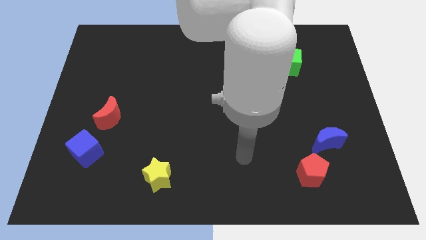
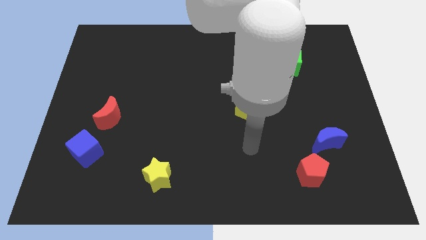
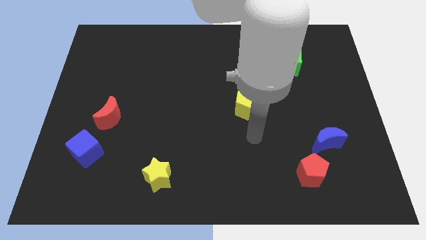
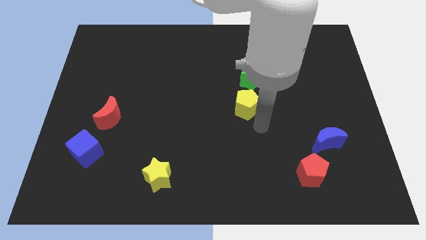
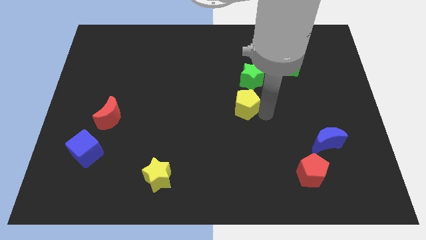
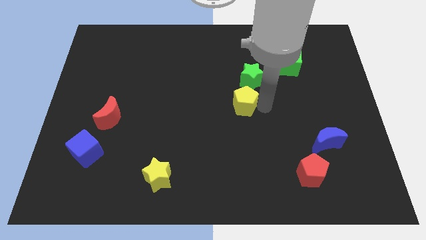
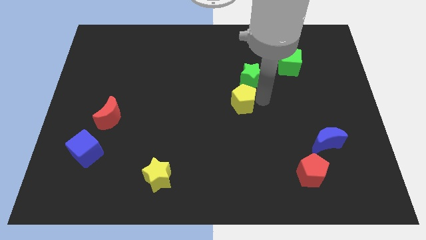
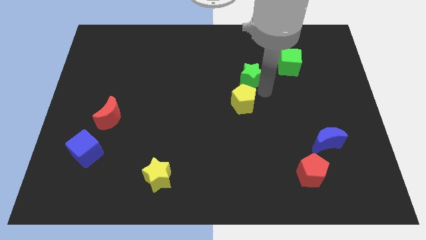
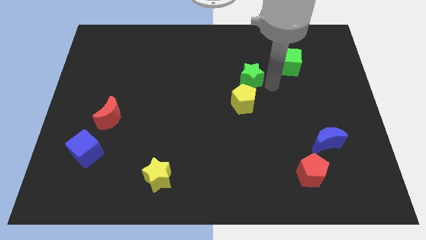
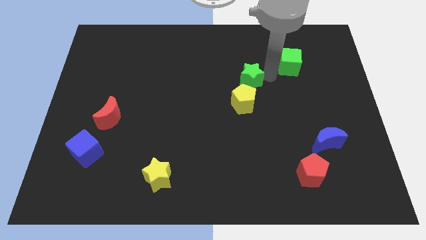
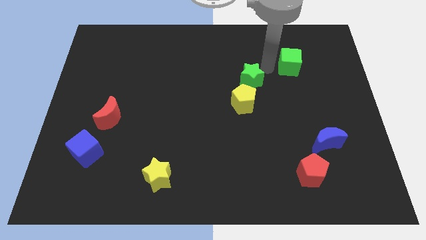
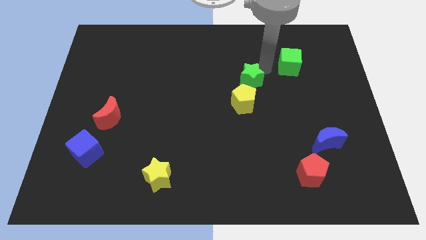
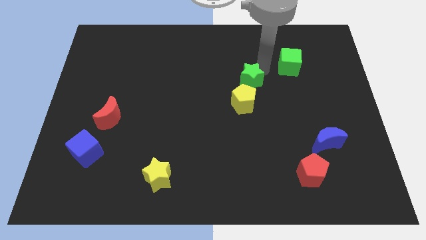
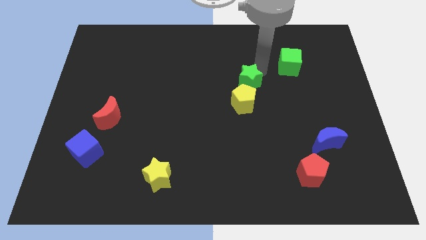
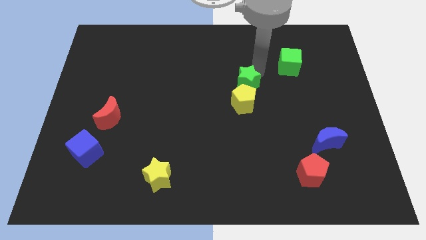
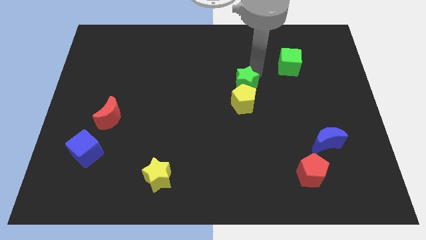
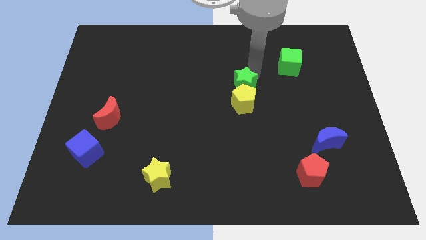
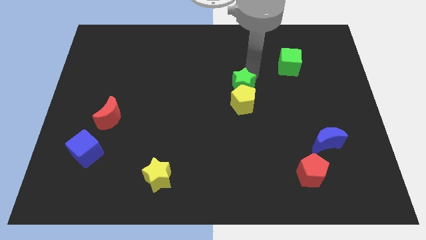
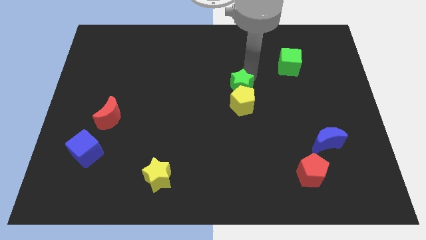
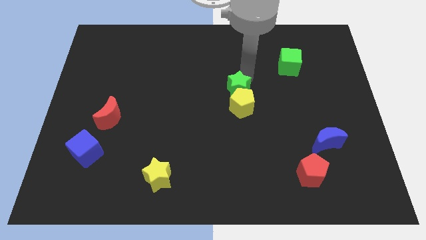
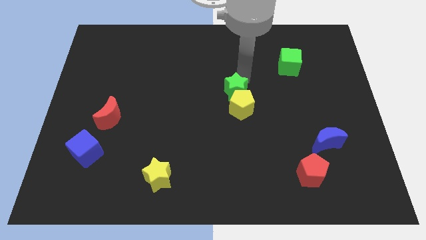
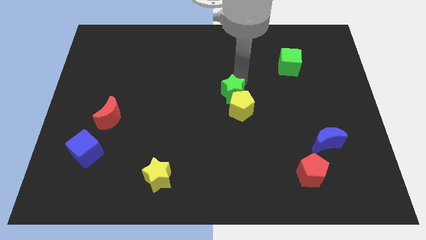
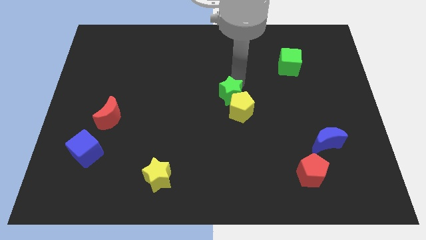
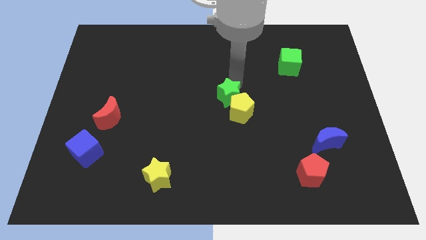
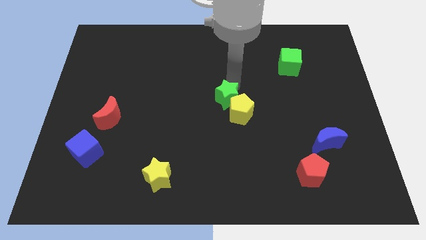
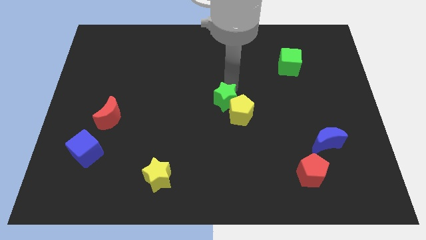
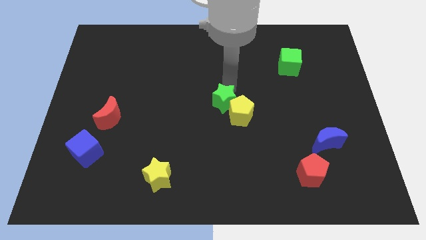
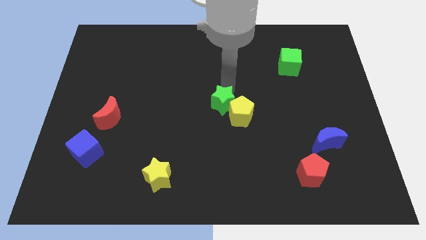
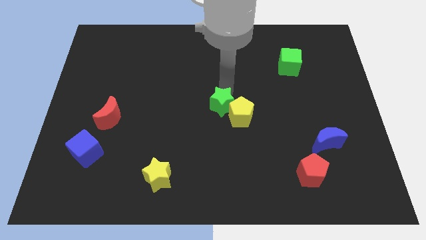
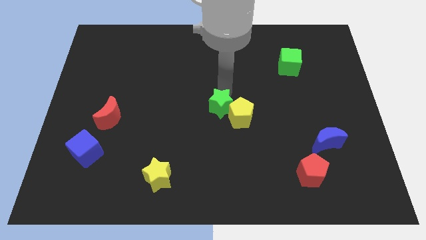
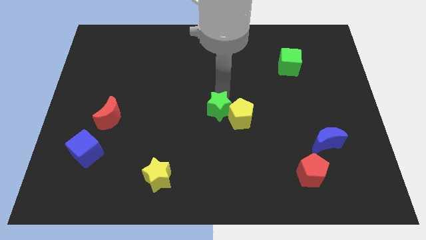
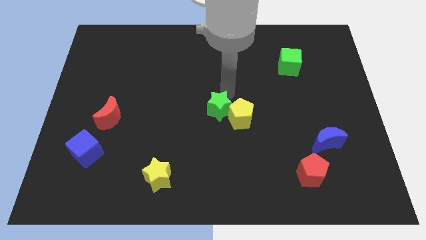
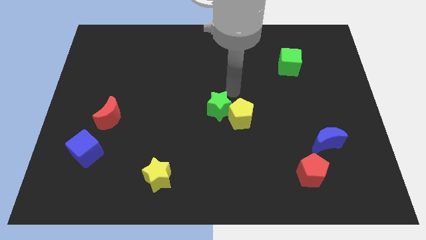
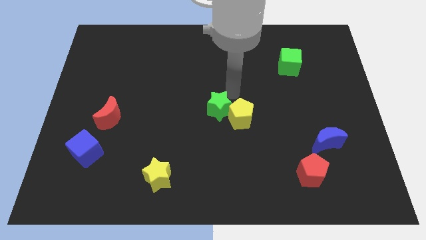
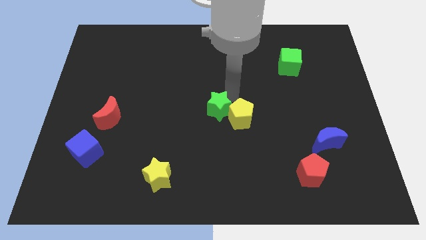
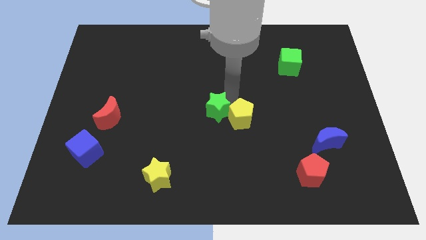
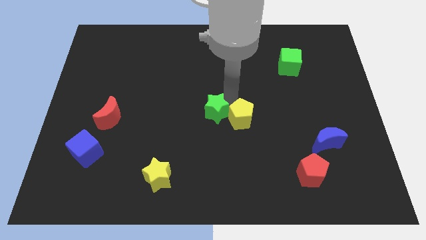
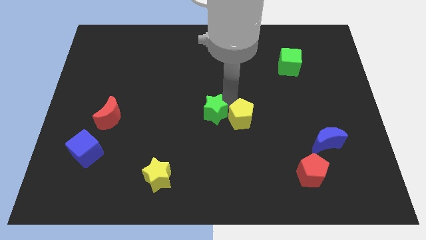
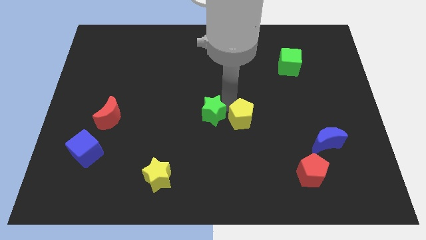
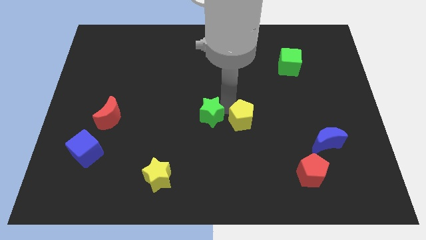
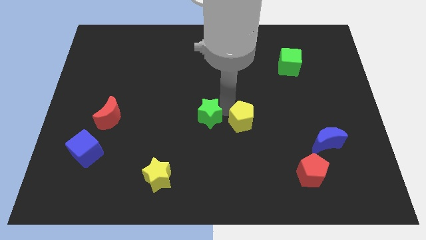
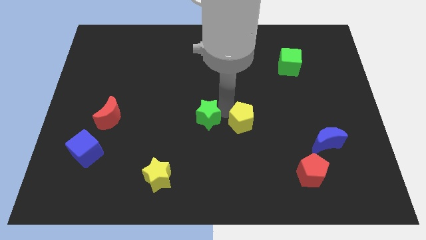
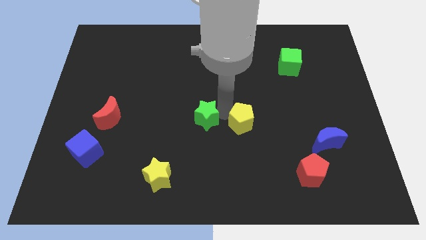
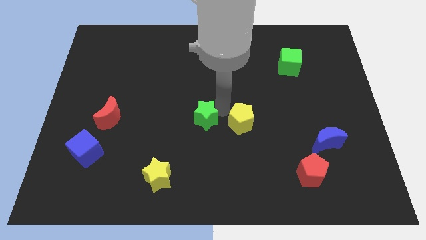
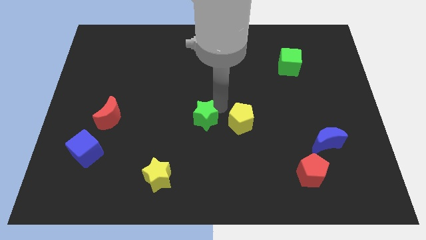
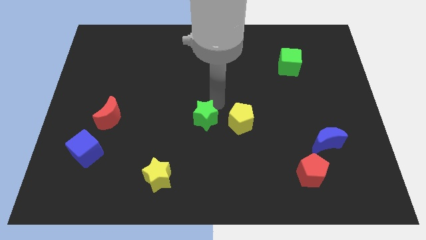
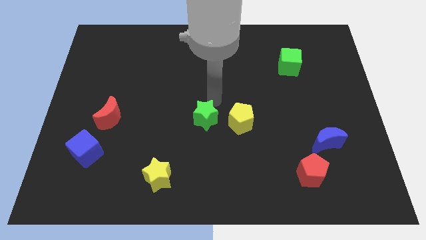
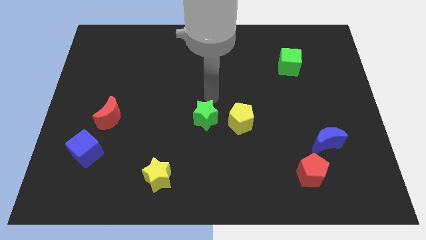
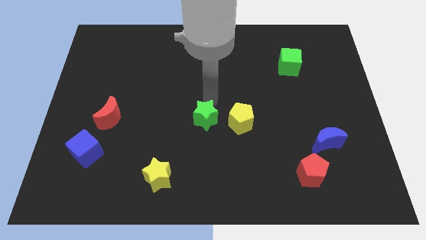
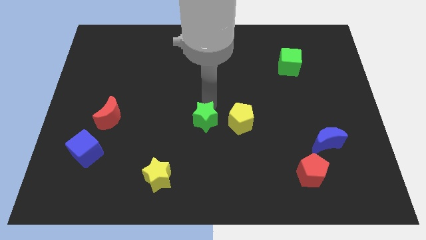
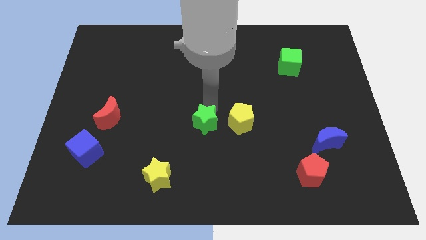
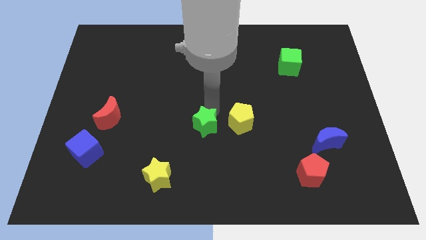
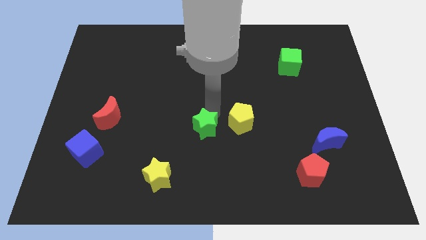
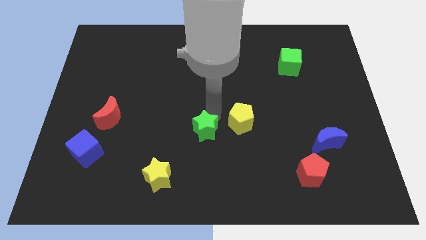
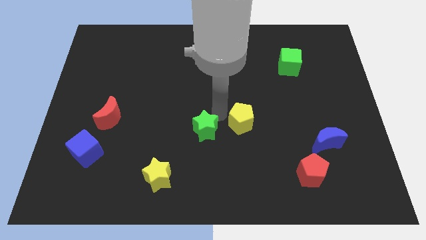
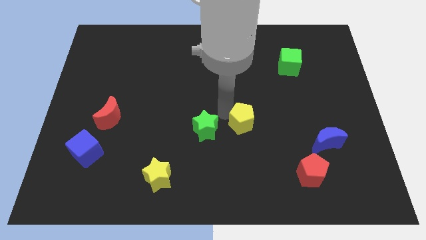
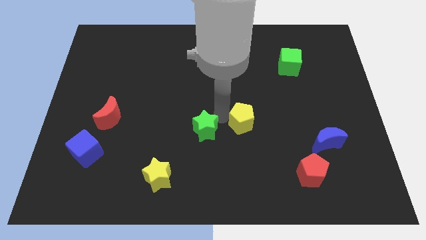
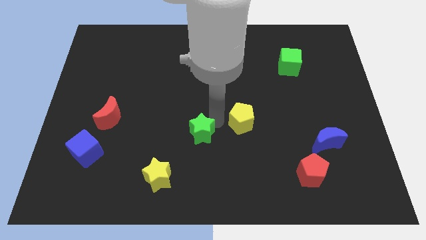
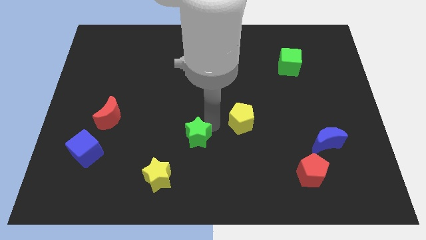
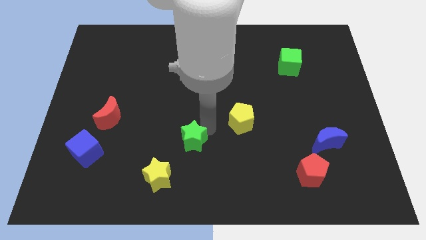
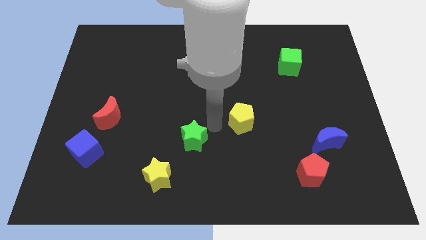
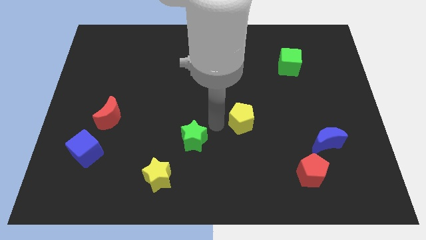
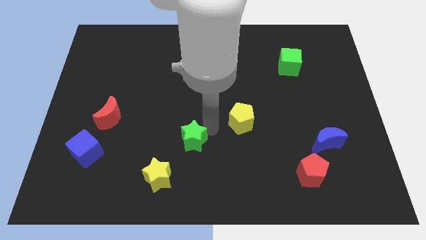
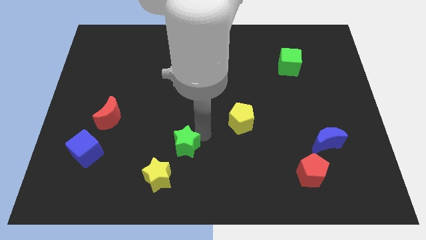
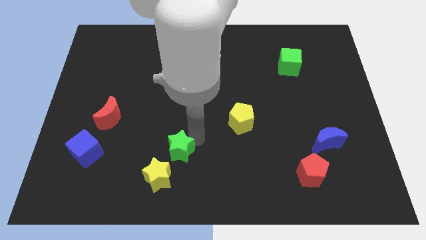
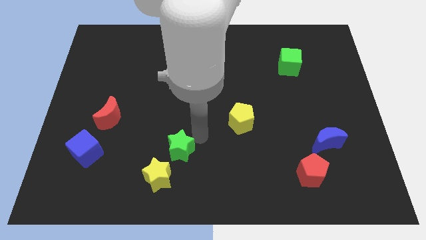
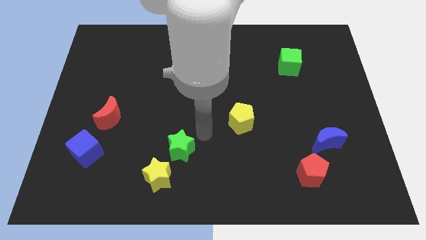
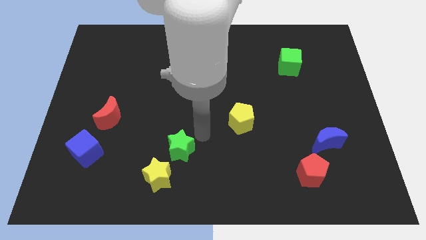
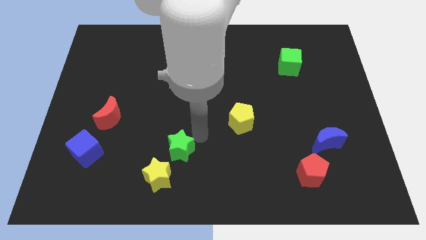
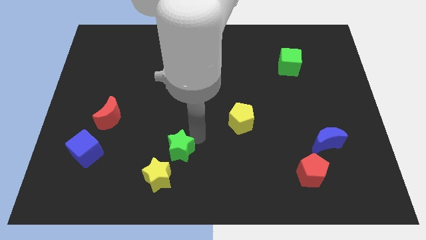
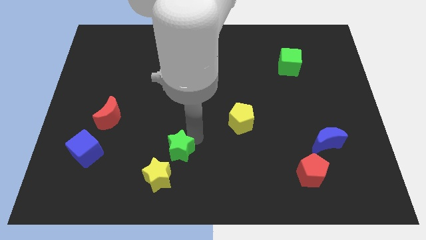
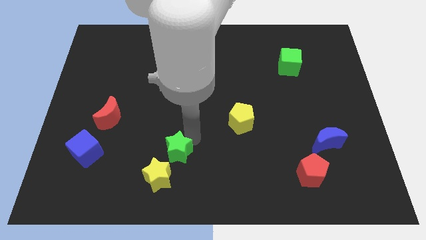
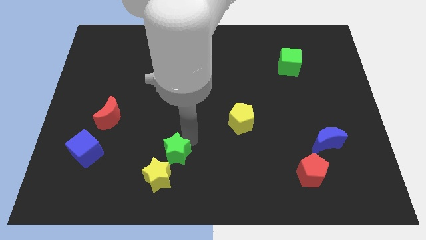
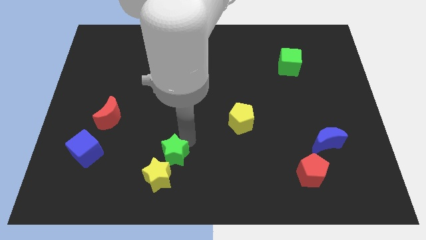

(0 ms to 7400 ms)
push the green star next to the yellow star

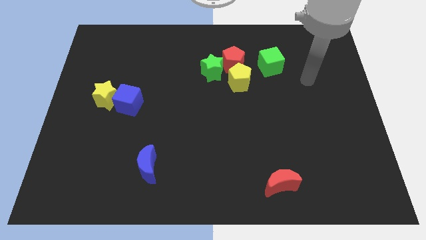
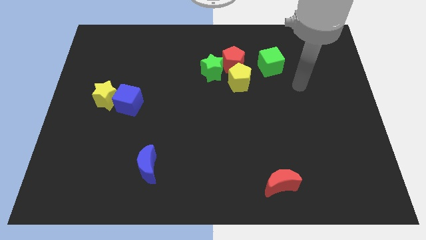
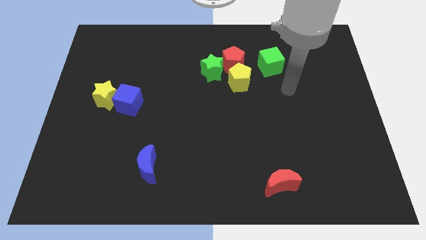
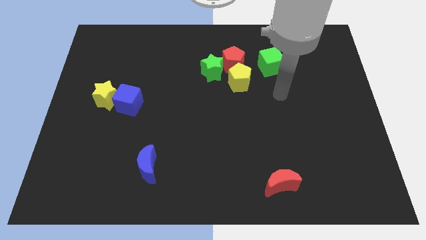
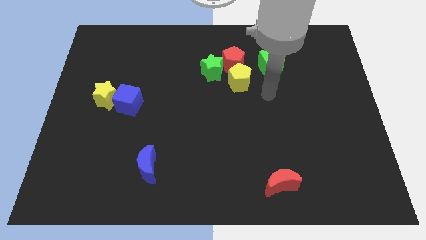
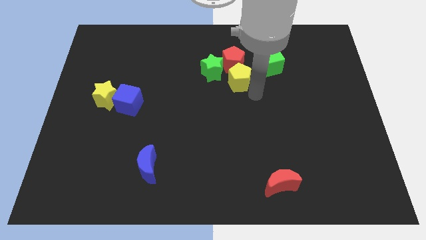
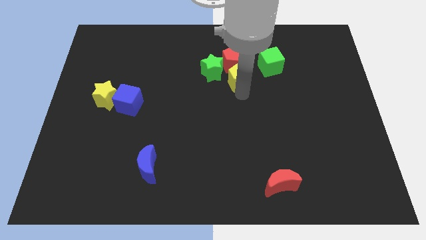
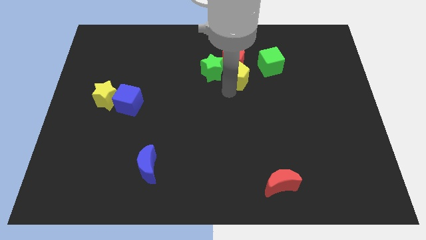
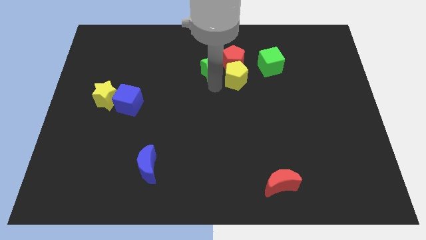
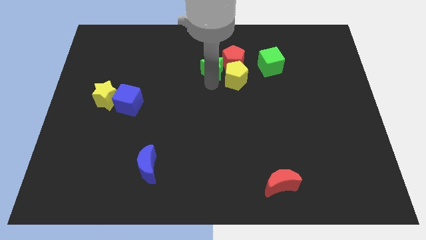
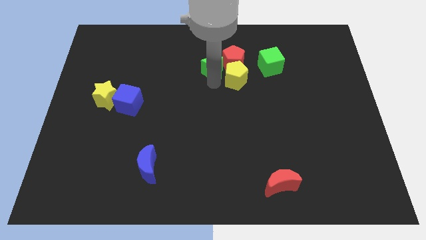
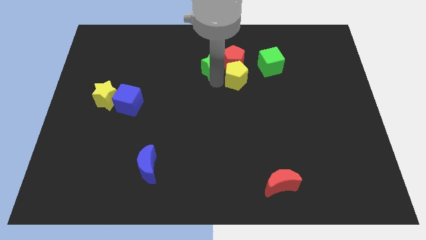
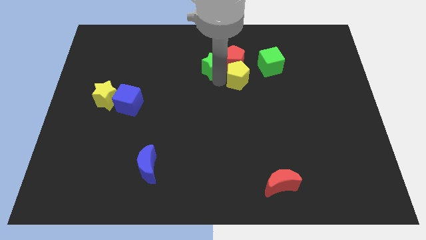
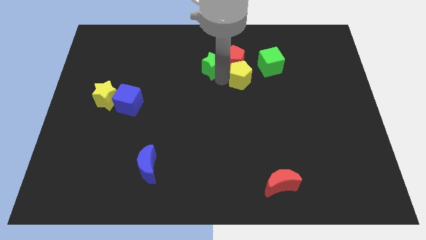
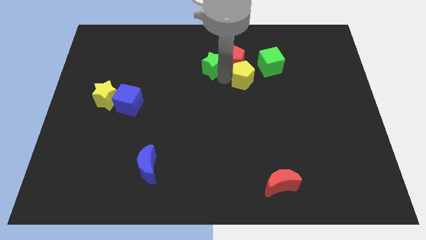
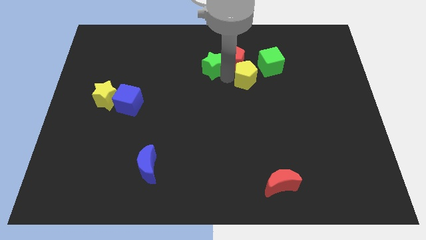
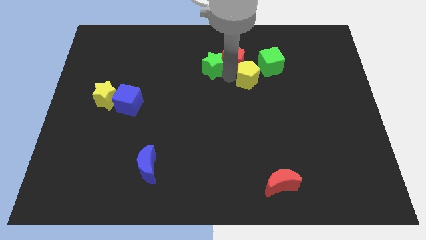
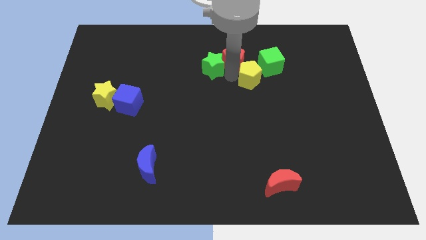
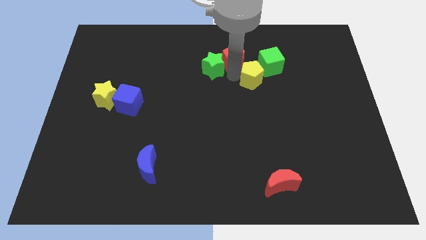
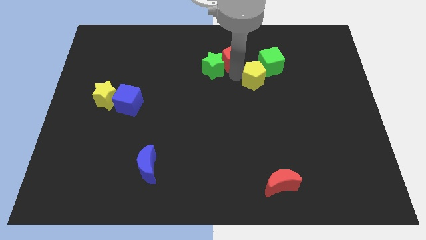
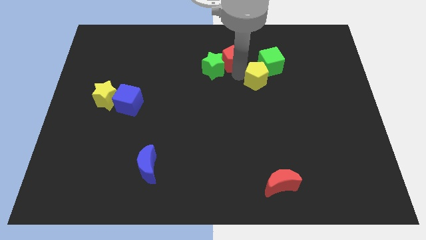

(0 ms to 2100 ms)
put the yellow pentagon close to the green cube
